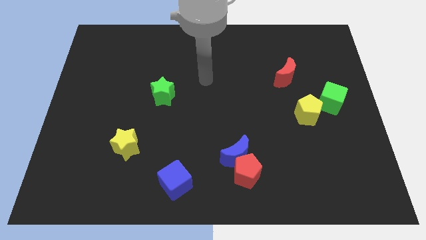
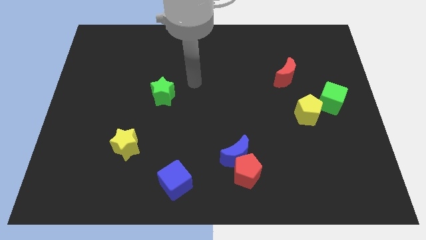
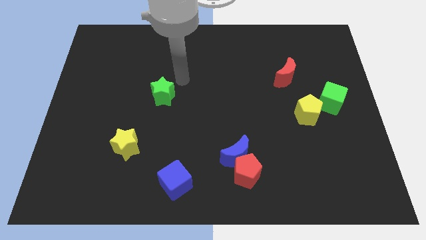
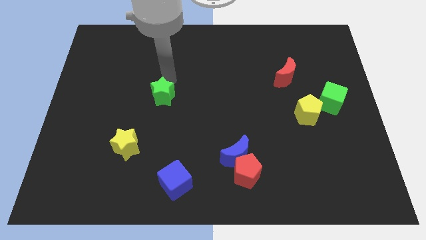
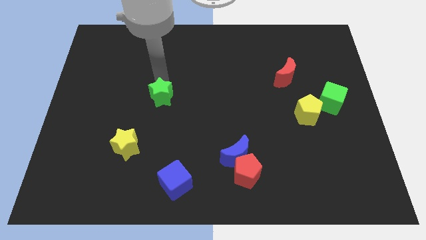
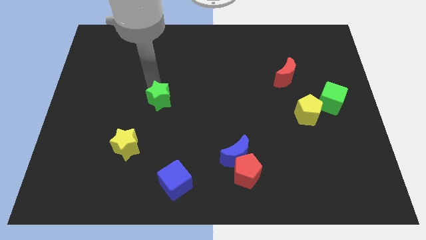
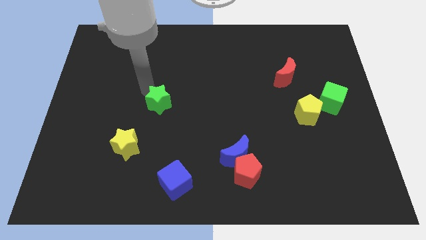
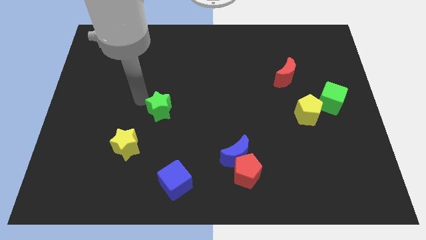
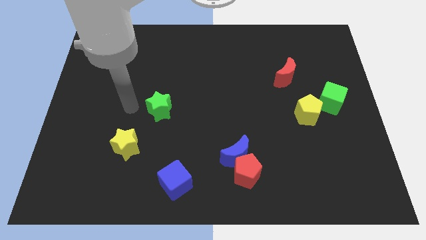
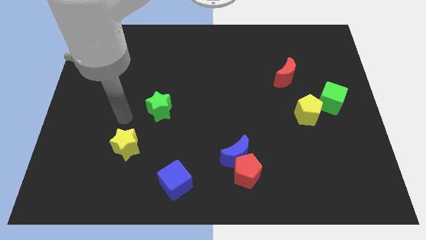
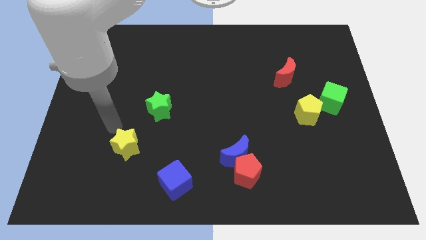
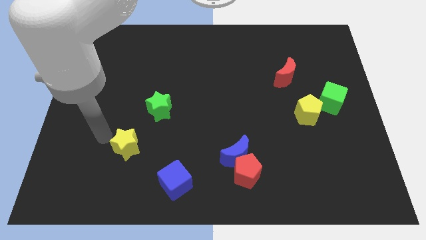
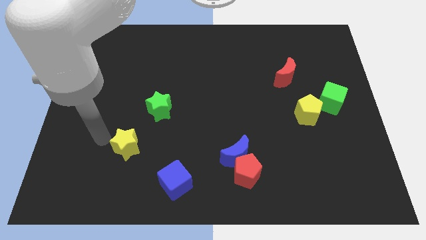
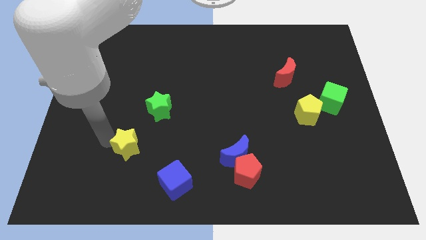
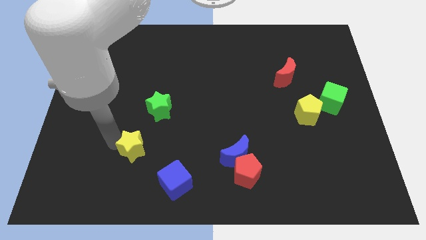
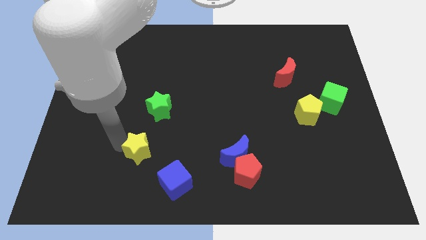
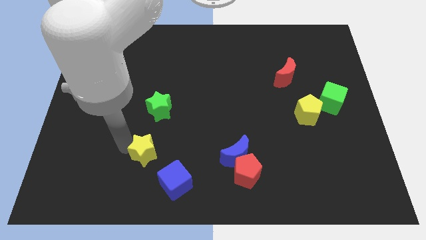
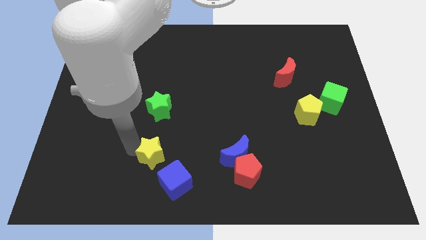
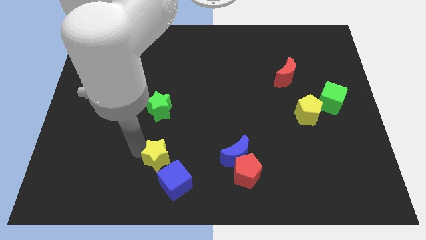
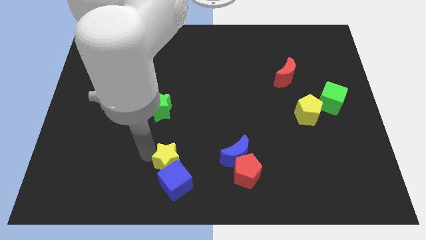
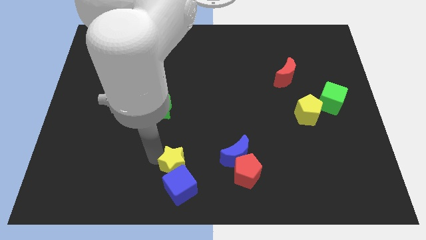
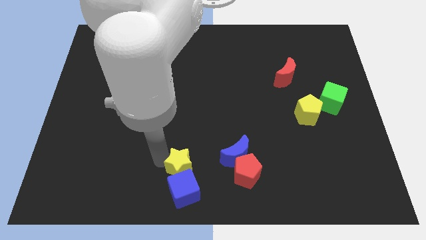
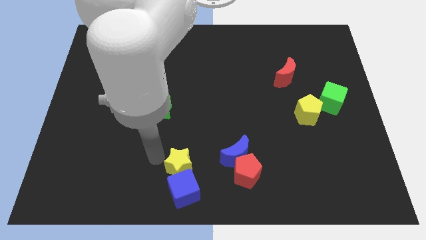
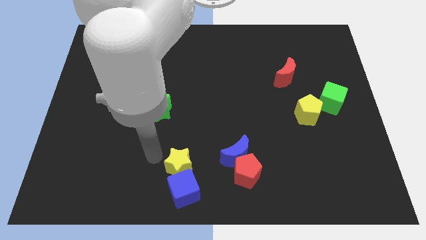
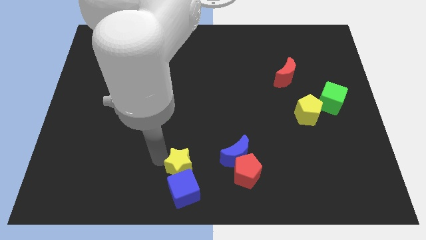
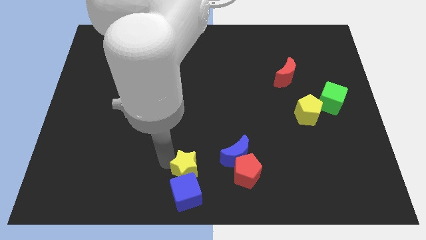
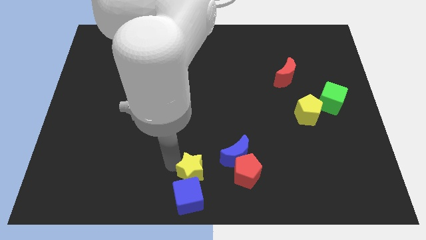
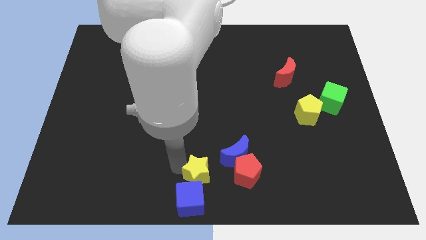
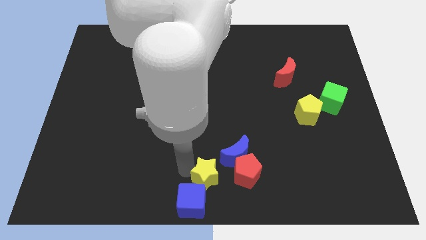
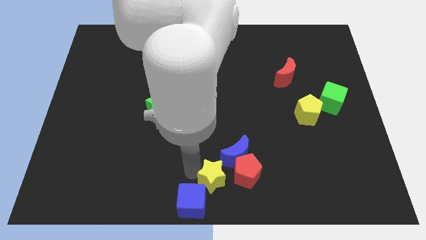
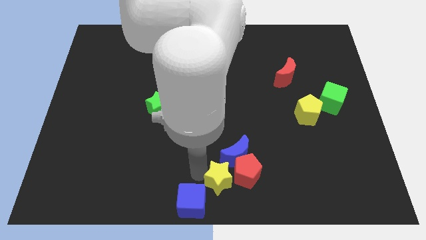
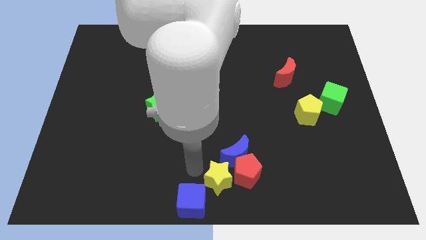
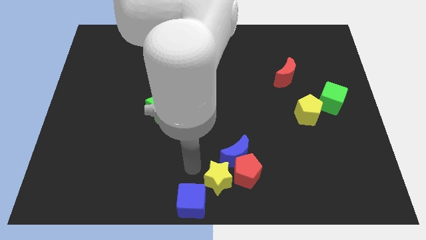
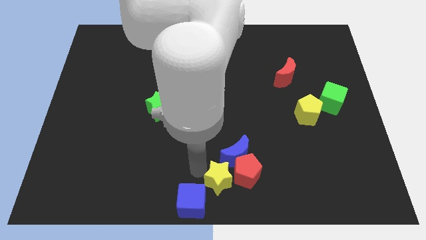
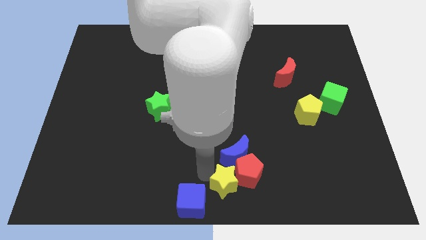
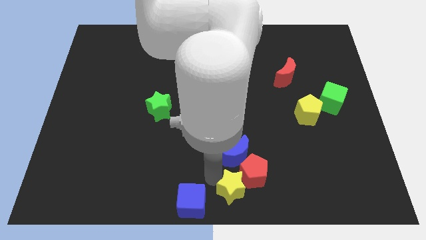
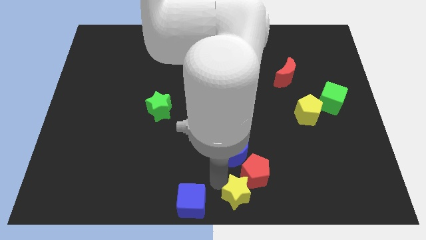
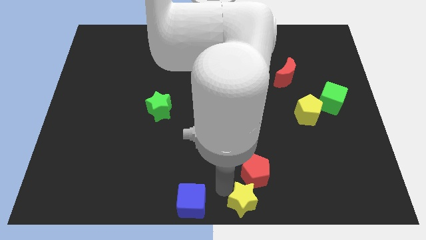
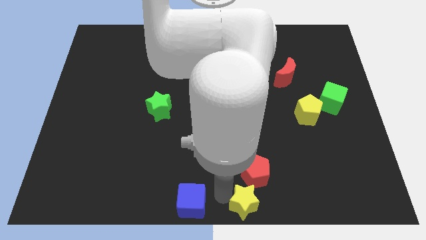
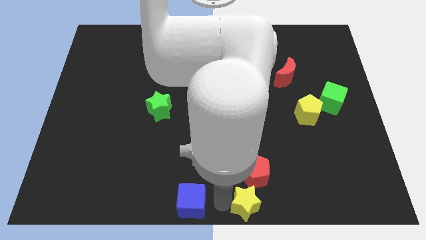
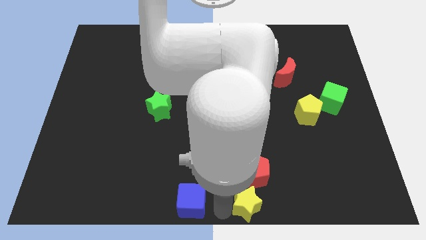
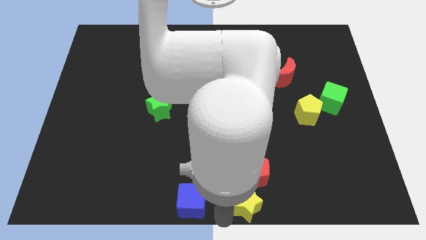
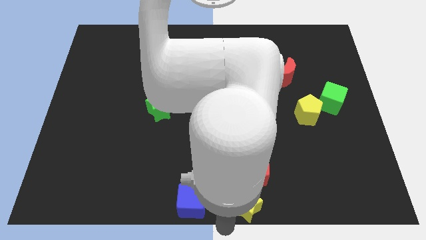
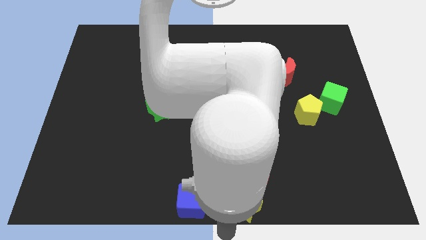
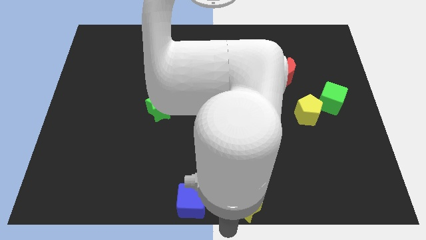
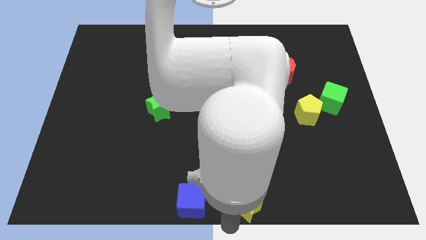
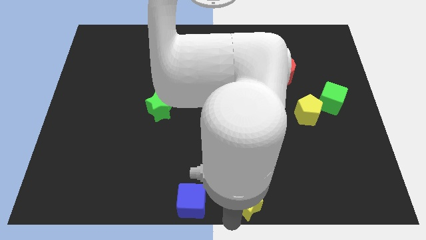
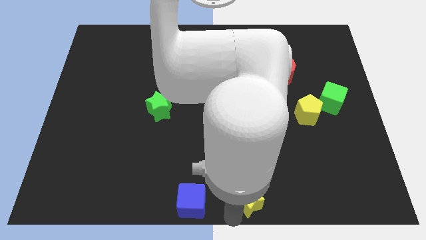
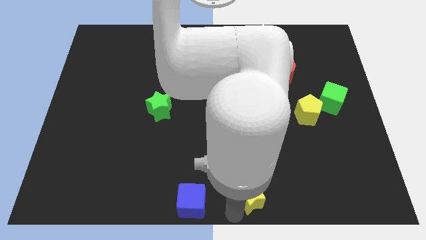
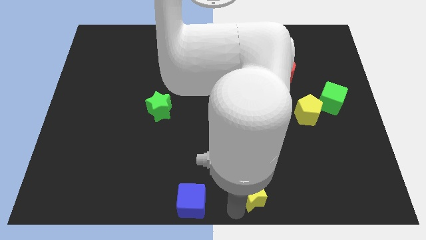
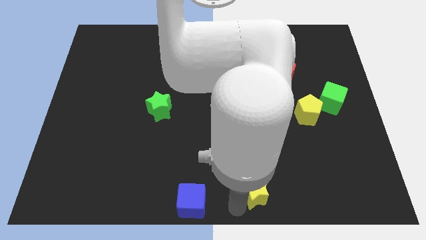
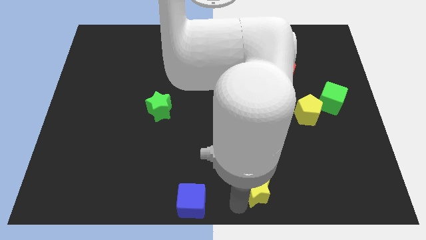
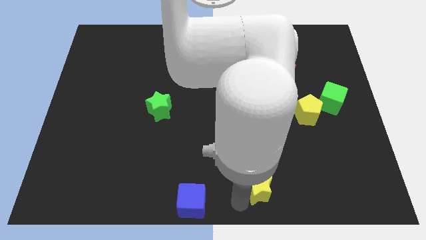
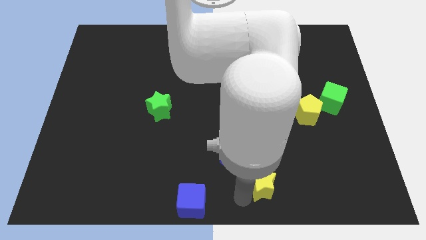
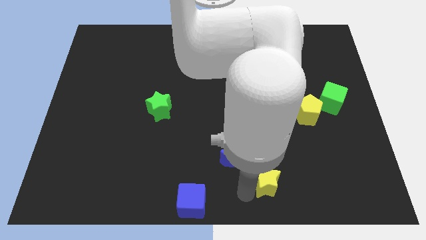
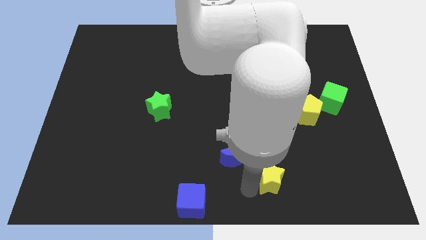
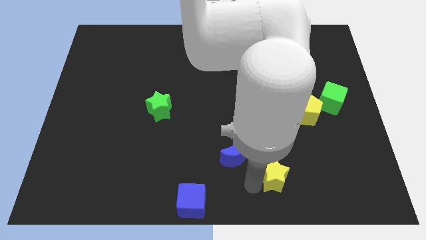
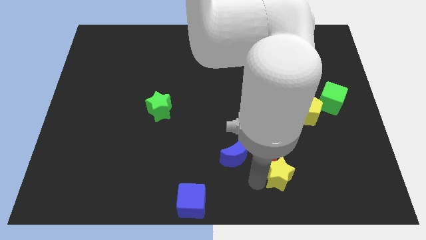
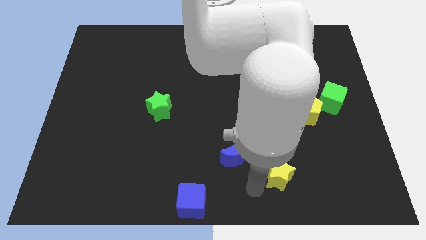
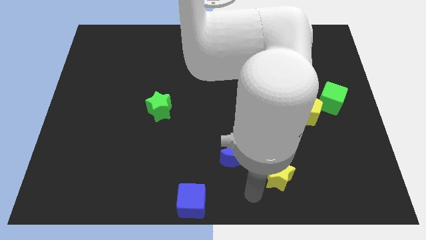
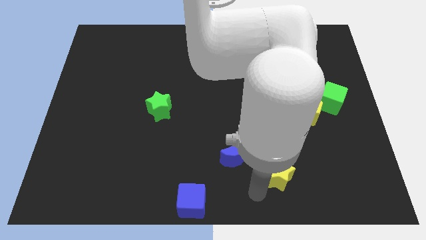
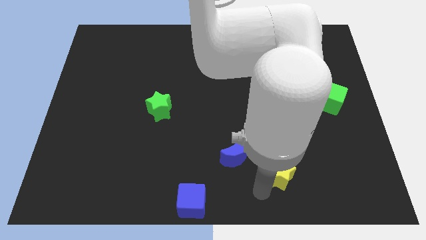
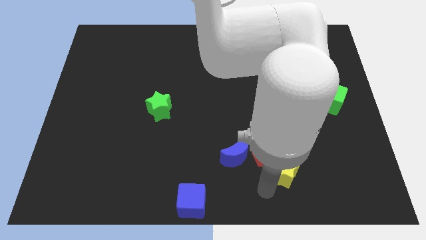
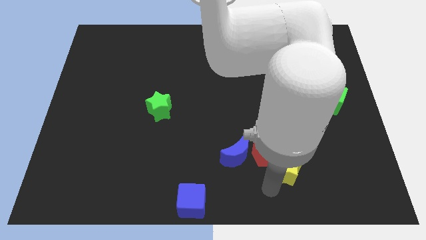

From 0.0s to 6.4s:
move the yellow star to the right of the red pentagon

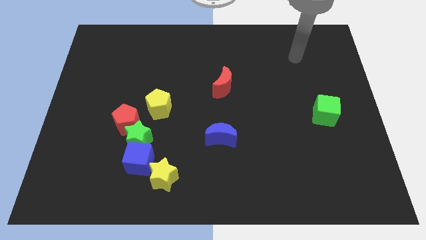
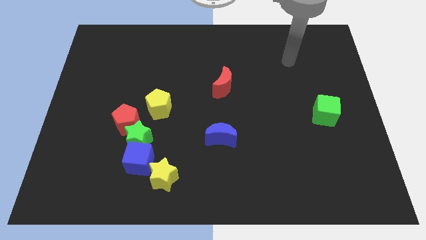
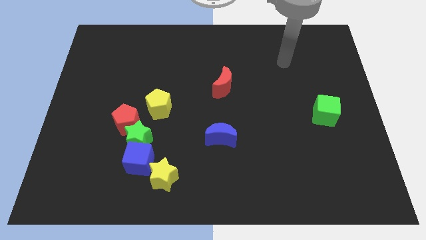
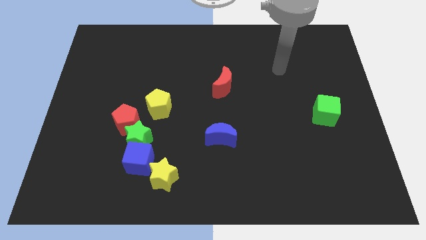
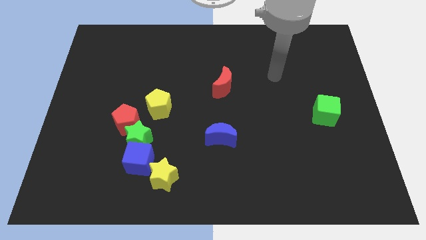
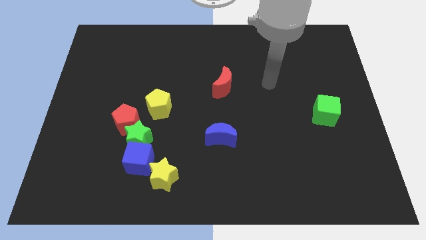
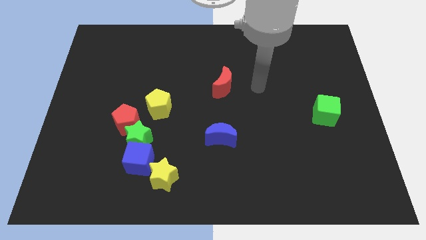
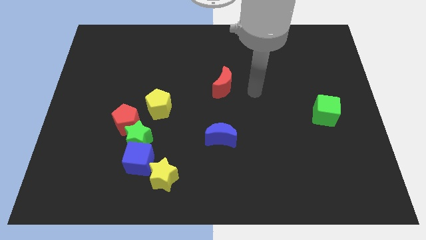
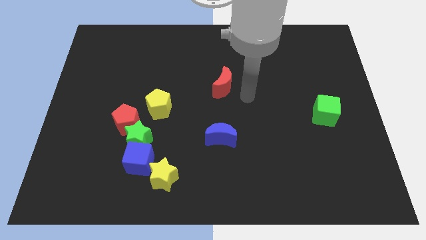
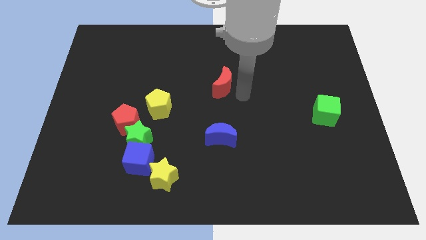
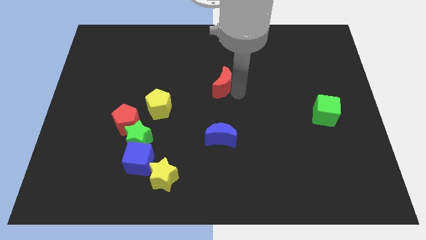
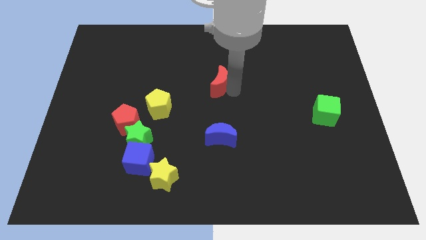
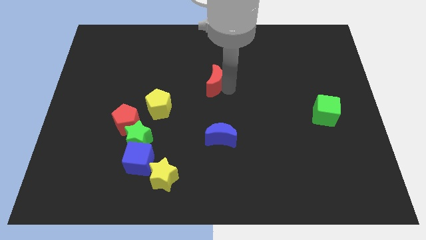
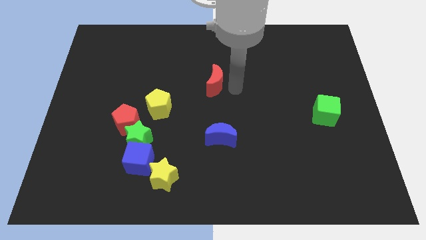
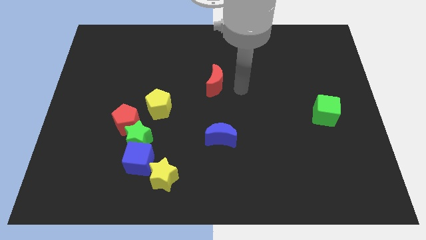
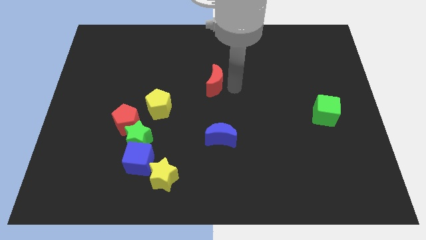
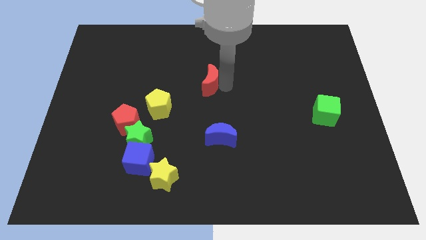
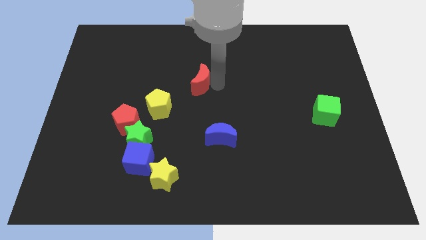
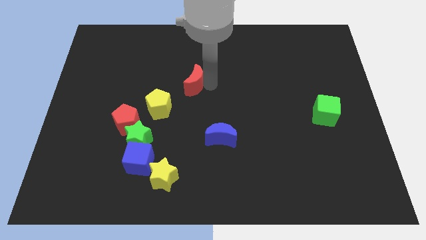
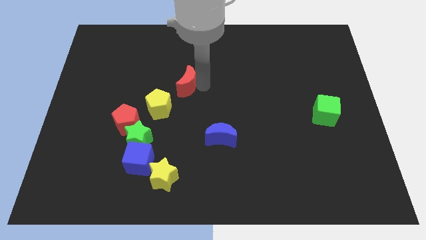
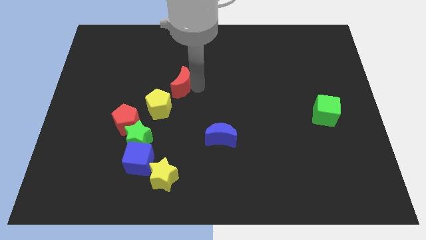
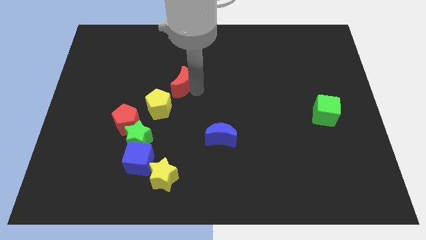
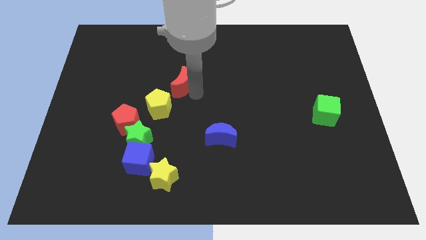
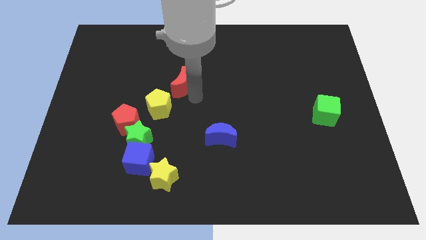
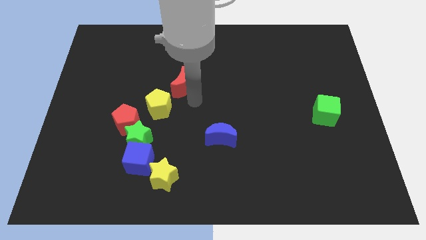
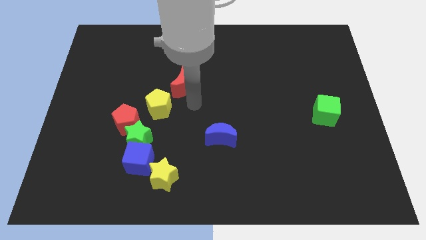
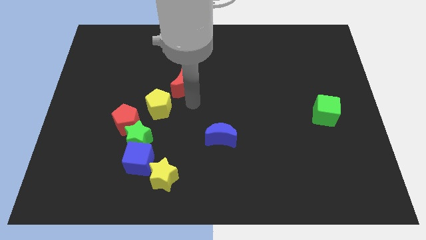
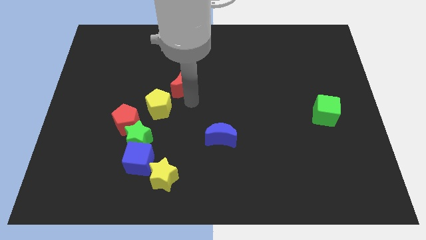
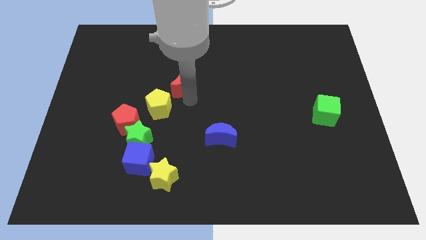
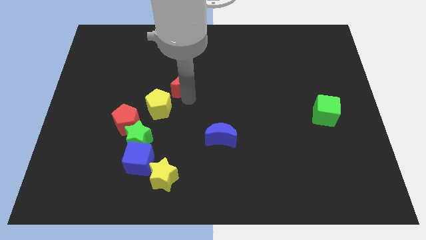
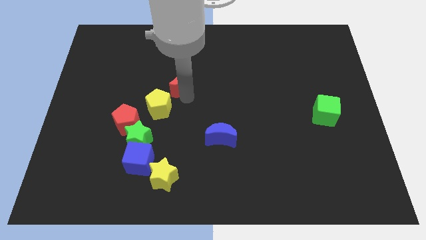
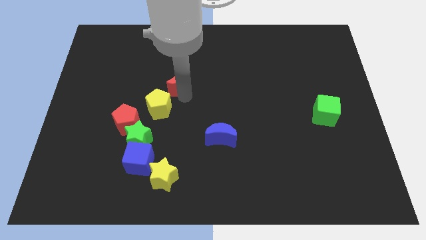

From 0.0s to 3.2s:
put the red moon to the top side of the yellow pentagon
